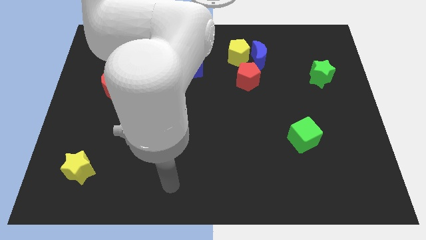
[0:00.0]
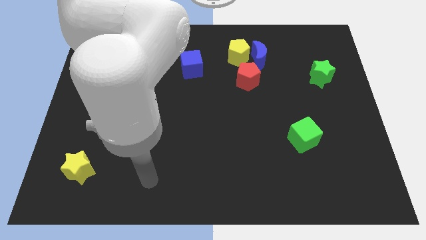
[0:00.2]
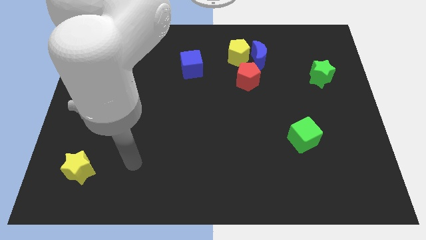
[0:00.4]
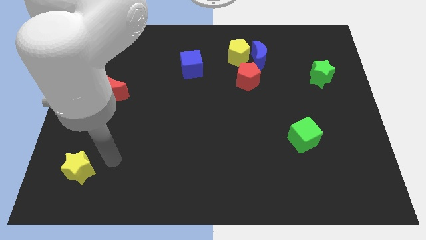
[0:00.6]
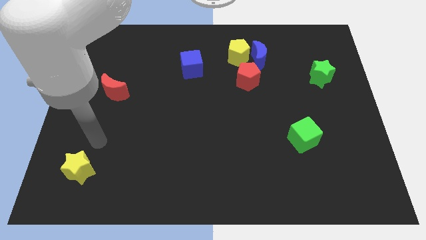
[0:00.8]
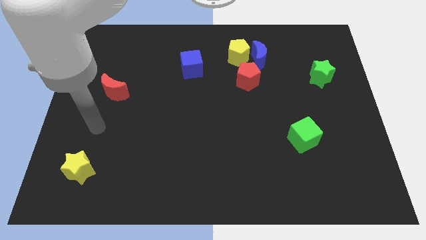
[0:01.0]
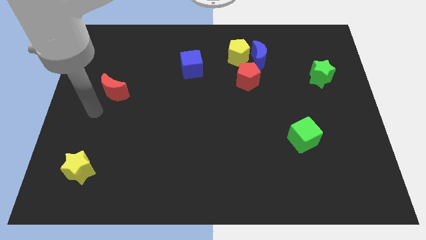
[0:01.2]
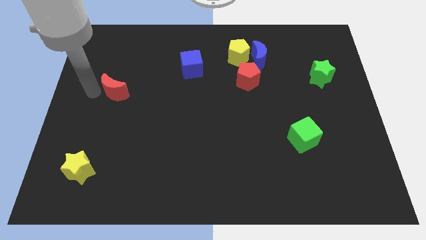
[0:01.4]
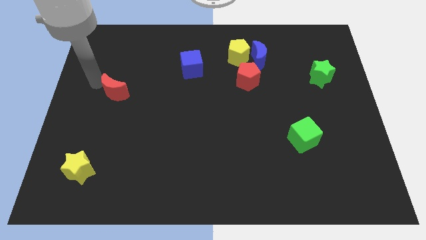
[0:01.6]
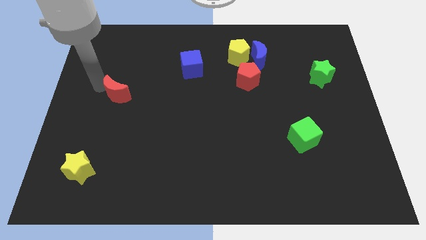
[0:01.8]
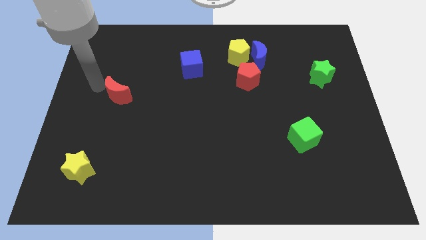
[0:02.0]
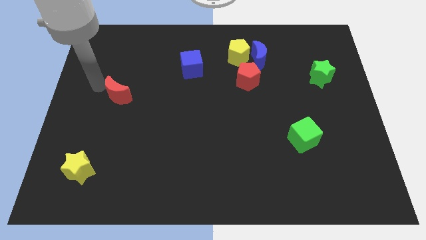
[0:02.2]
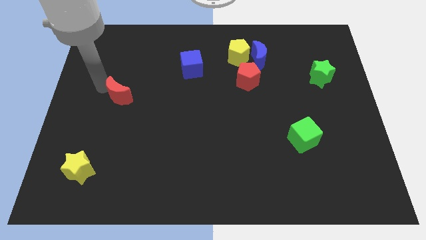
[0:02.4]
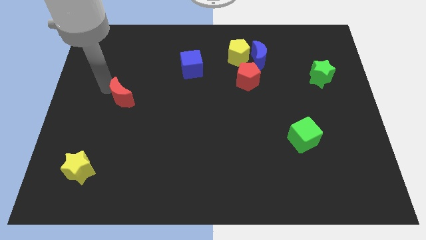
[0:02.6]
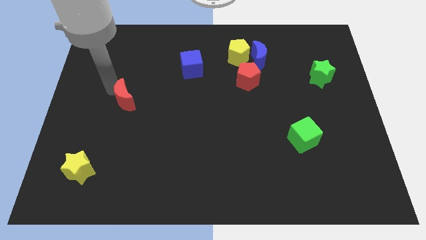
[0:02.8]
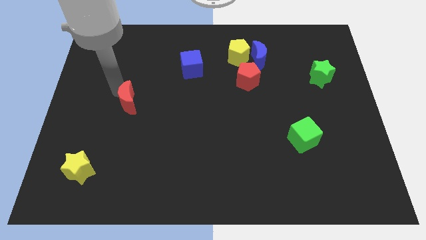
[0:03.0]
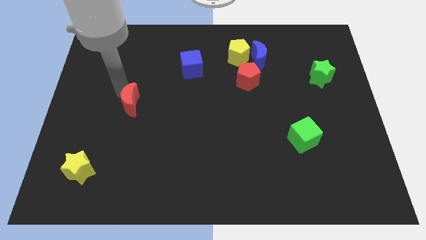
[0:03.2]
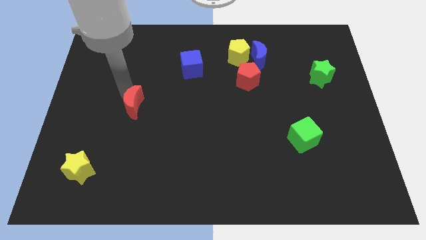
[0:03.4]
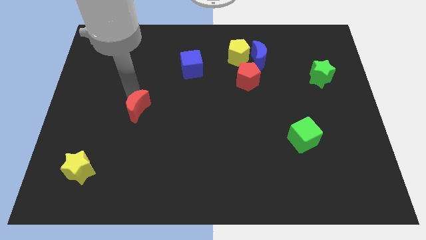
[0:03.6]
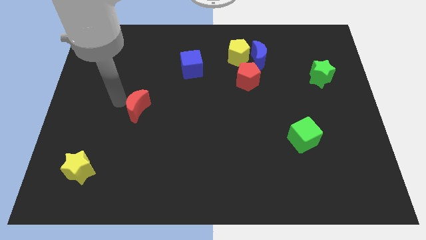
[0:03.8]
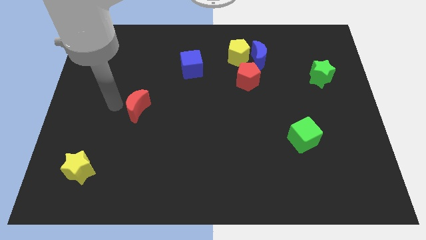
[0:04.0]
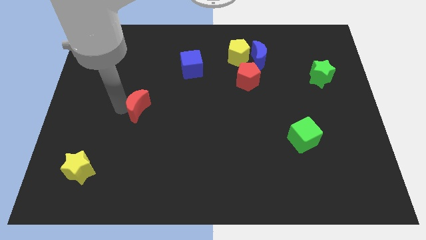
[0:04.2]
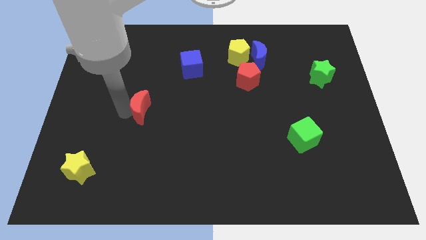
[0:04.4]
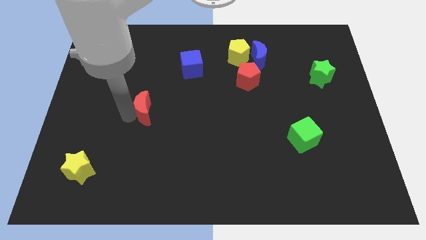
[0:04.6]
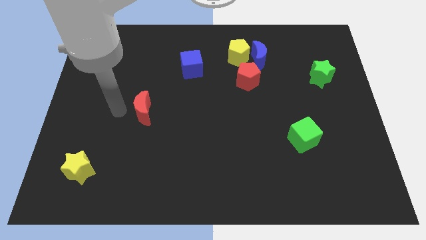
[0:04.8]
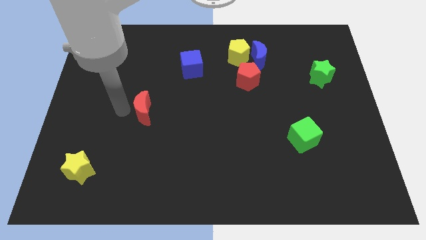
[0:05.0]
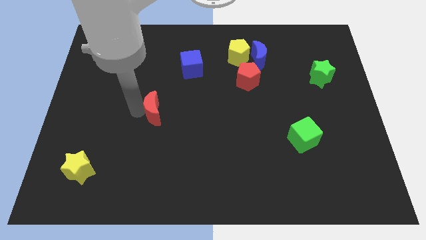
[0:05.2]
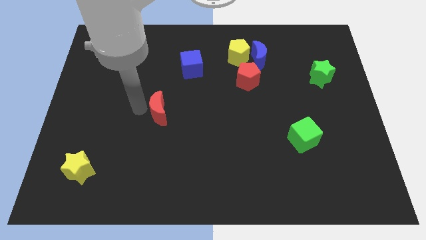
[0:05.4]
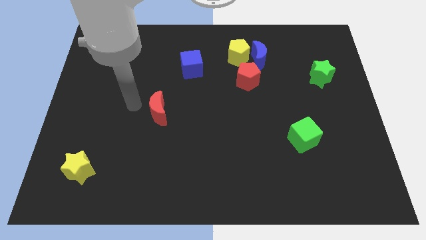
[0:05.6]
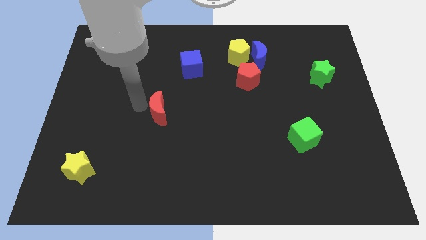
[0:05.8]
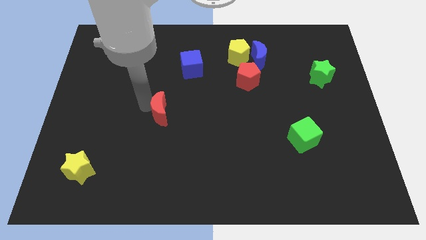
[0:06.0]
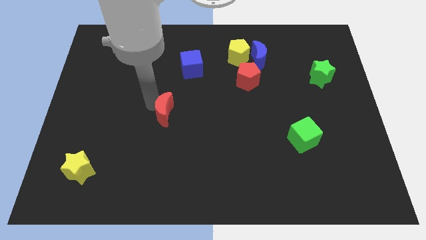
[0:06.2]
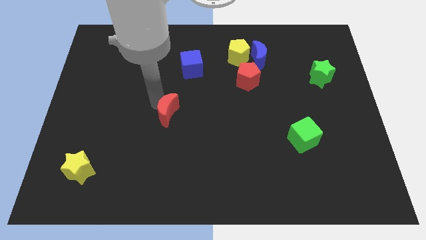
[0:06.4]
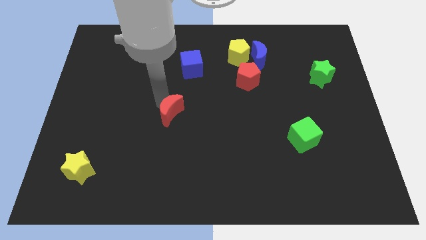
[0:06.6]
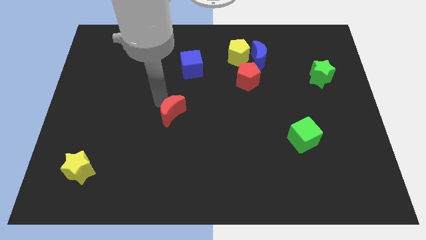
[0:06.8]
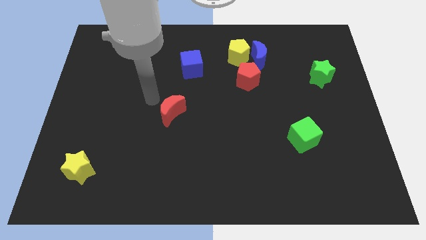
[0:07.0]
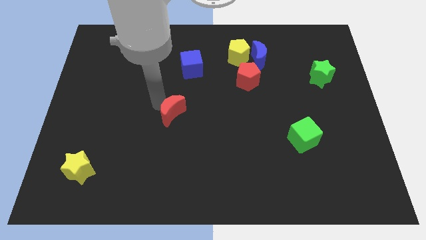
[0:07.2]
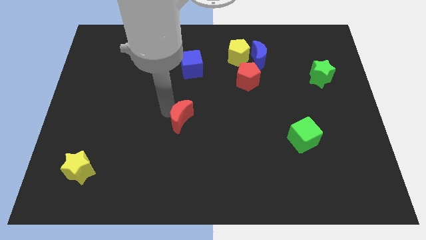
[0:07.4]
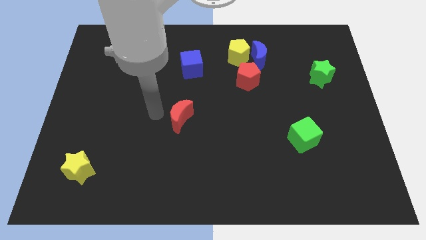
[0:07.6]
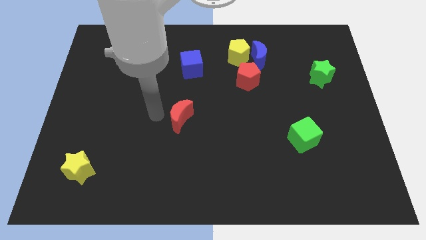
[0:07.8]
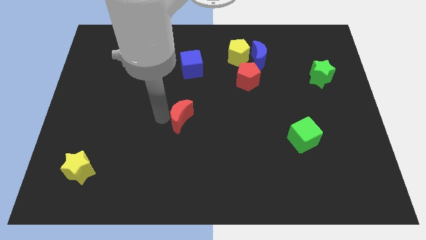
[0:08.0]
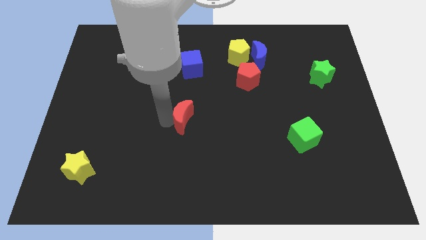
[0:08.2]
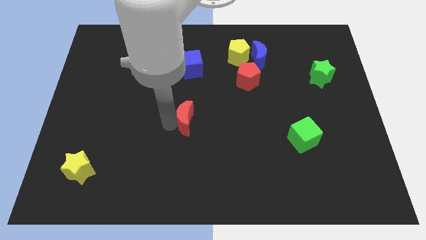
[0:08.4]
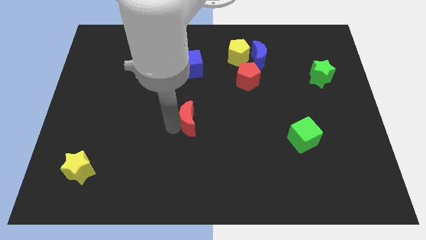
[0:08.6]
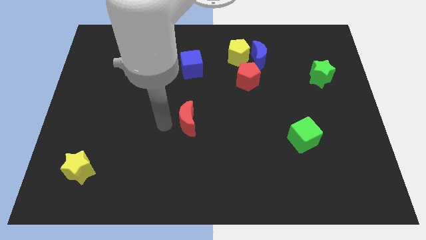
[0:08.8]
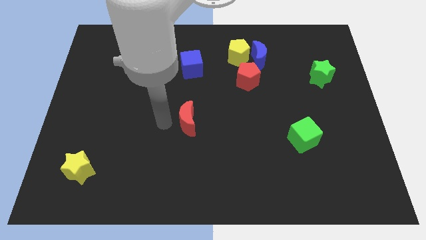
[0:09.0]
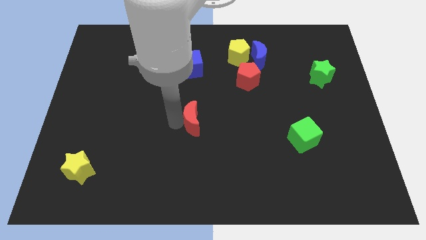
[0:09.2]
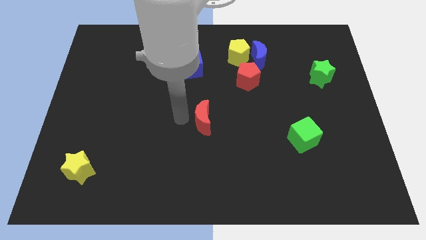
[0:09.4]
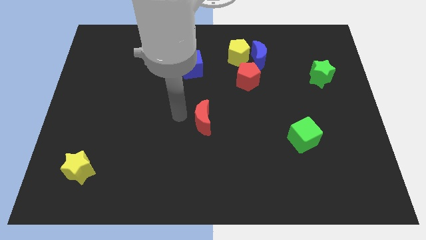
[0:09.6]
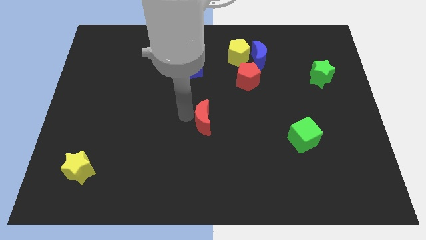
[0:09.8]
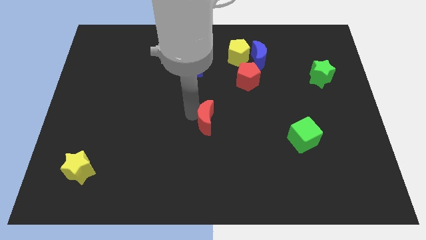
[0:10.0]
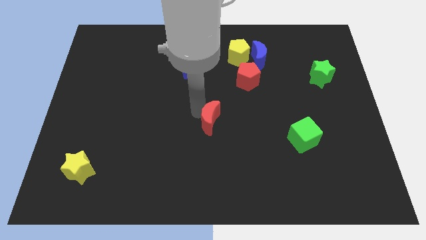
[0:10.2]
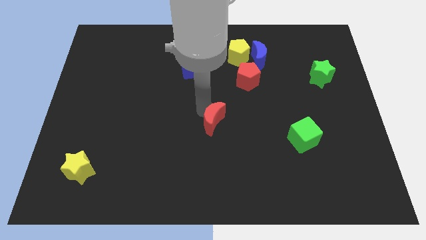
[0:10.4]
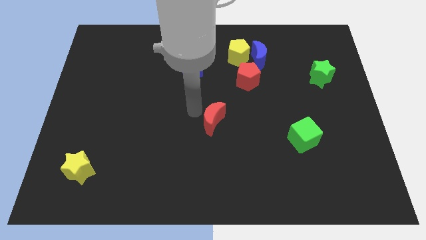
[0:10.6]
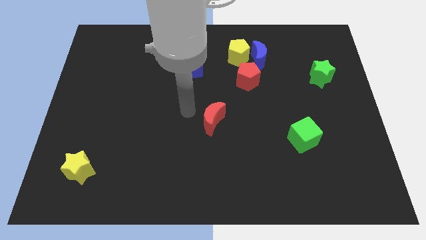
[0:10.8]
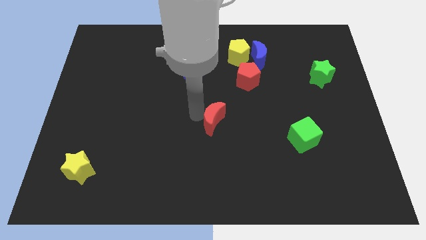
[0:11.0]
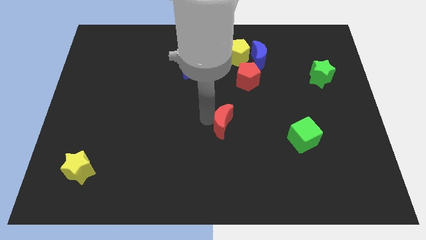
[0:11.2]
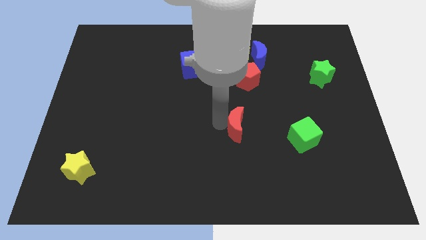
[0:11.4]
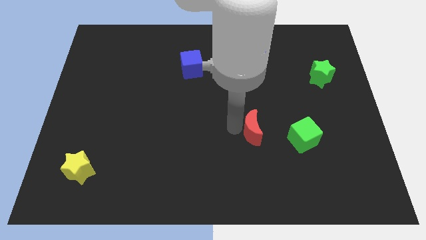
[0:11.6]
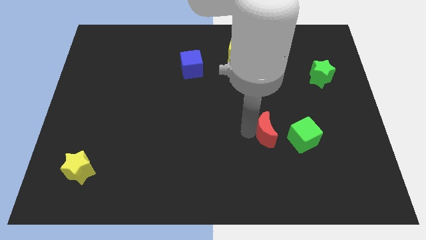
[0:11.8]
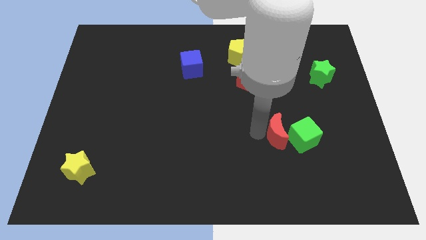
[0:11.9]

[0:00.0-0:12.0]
slide the red moon close to the green cube

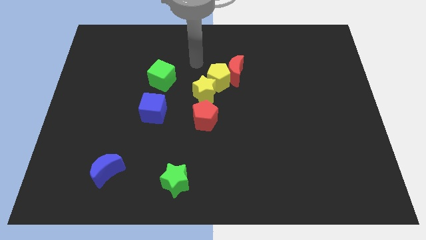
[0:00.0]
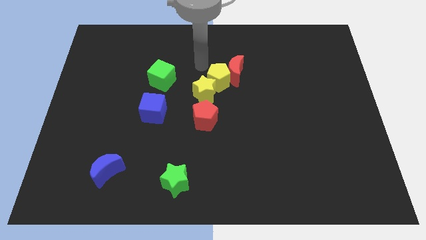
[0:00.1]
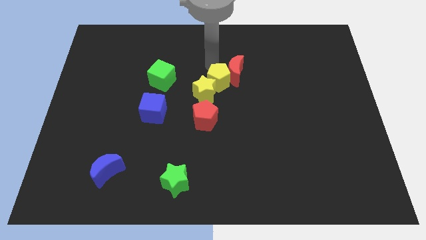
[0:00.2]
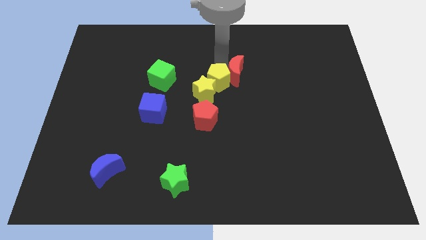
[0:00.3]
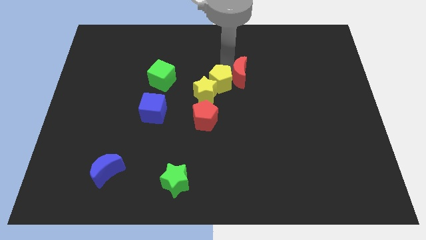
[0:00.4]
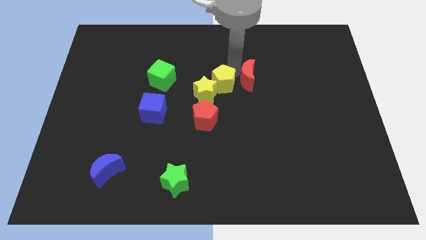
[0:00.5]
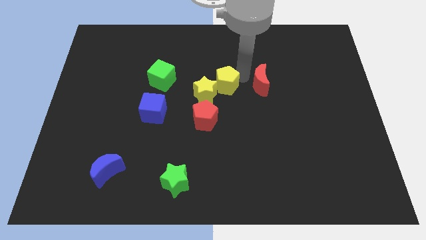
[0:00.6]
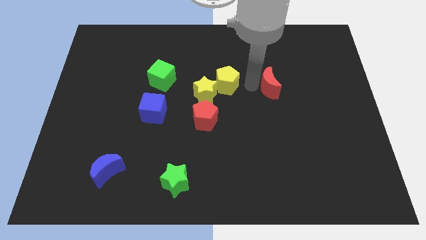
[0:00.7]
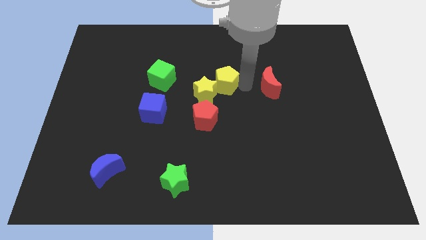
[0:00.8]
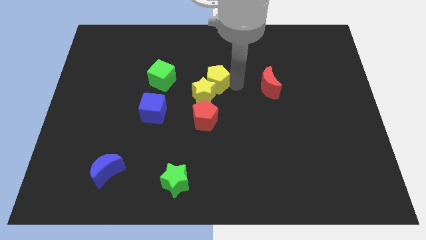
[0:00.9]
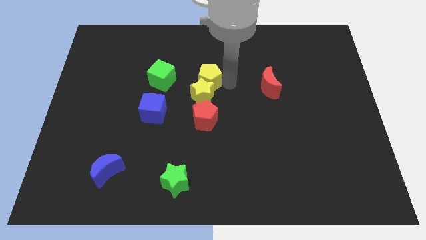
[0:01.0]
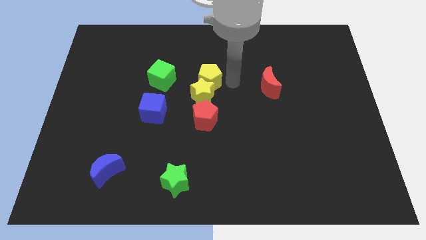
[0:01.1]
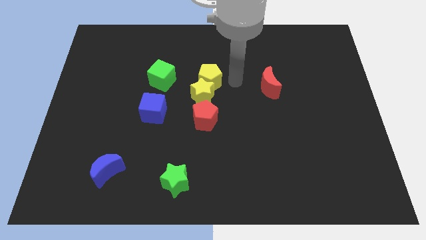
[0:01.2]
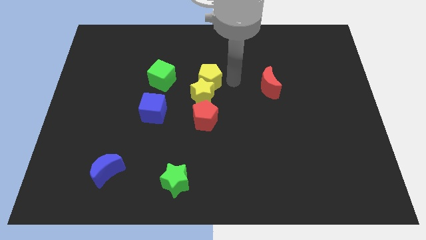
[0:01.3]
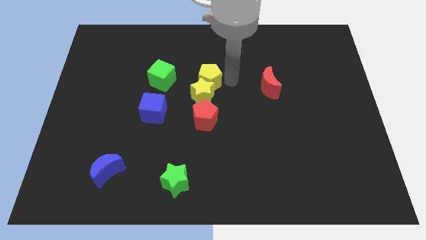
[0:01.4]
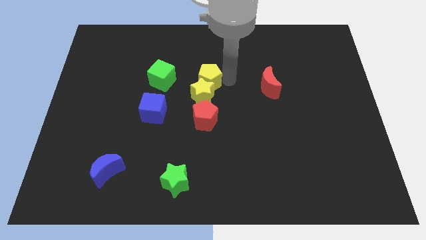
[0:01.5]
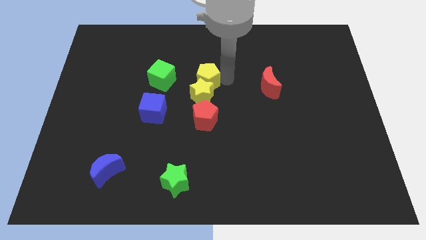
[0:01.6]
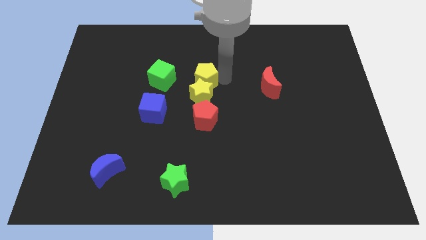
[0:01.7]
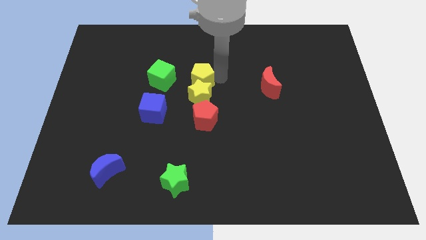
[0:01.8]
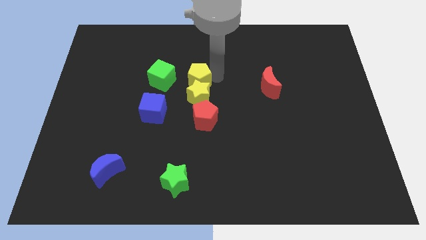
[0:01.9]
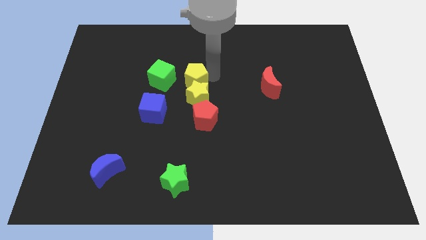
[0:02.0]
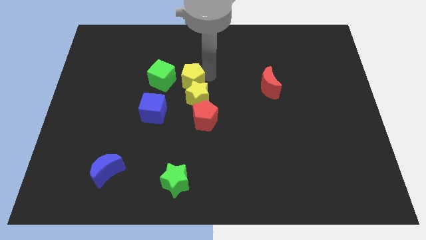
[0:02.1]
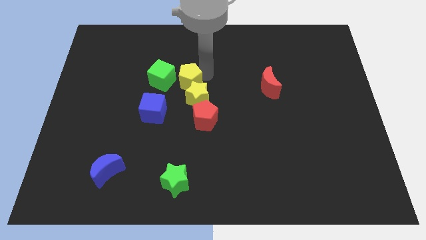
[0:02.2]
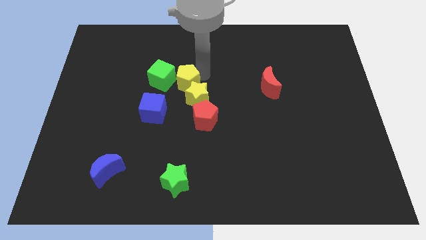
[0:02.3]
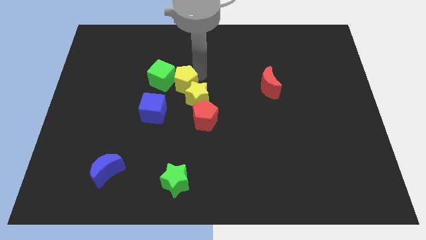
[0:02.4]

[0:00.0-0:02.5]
push the yellow pentagon close to the green cube
